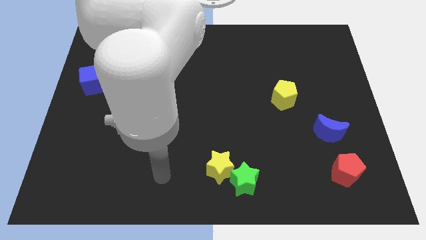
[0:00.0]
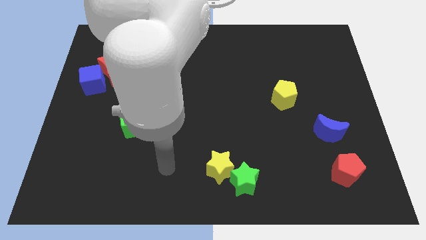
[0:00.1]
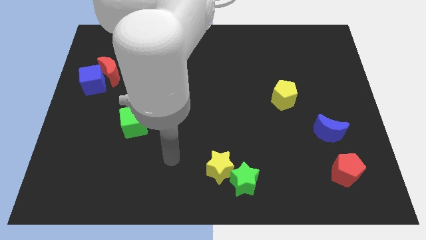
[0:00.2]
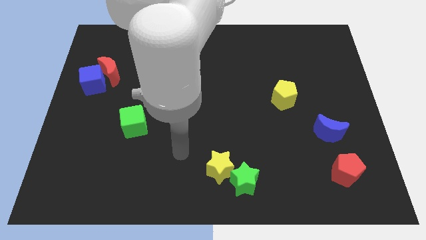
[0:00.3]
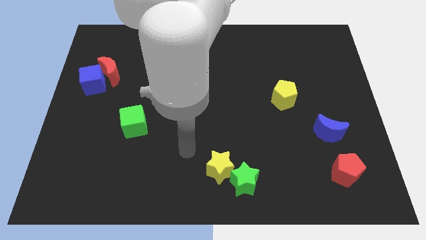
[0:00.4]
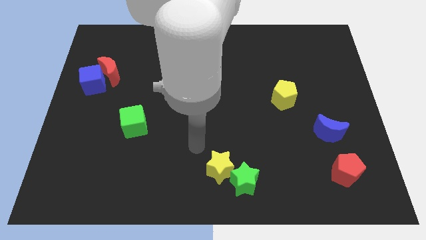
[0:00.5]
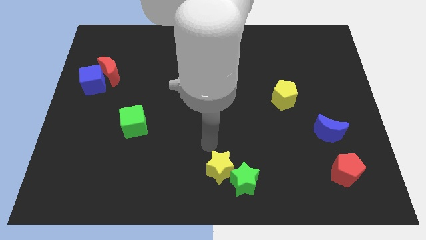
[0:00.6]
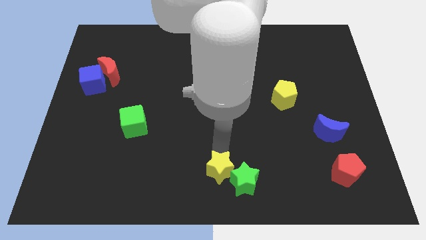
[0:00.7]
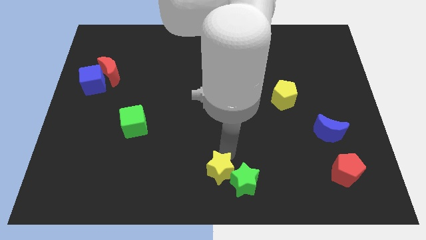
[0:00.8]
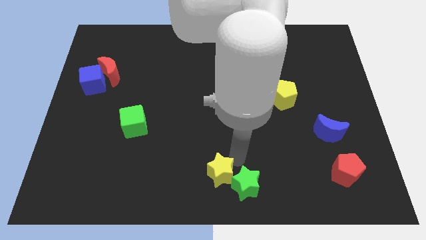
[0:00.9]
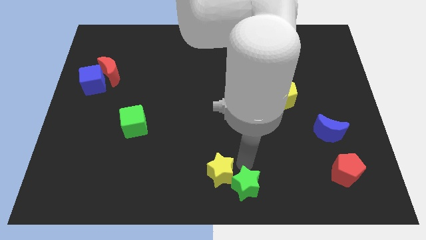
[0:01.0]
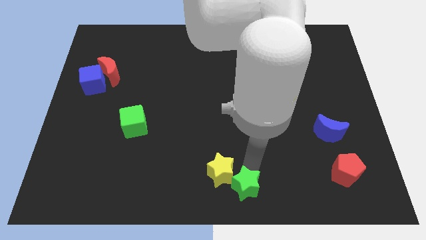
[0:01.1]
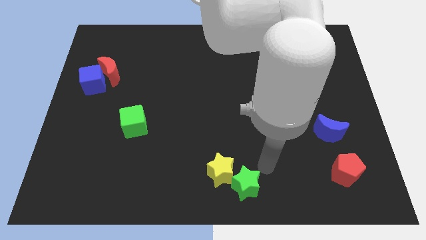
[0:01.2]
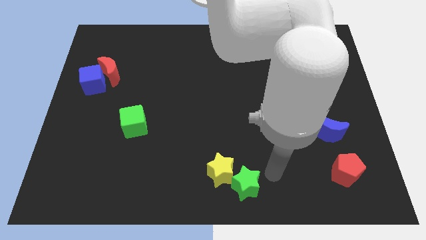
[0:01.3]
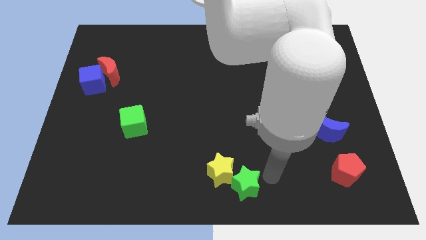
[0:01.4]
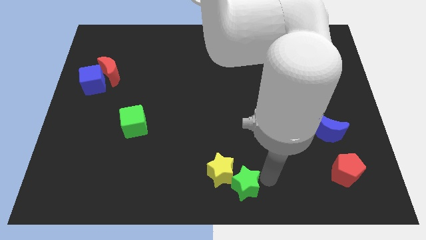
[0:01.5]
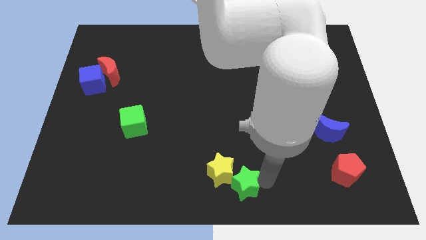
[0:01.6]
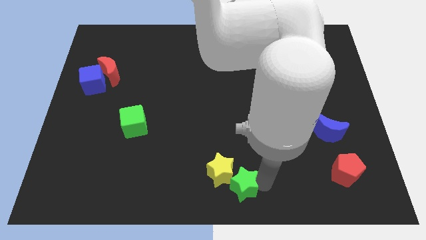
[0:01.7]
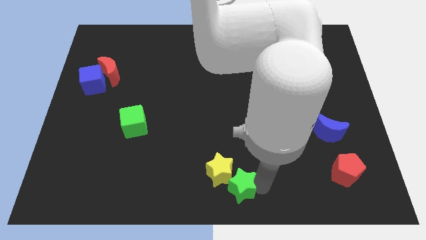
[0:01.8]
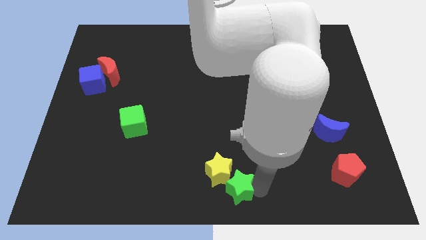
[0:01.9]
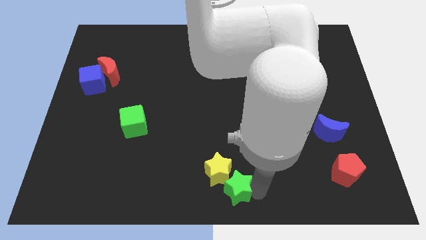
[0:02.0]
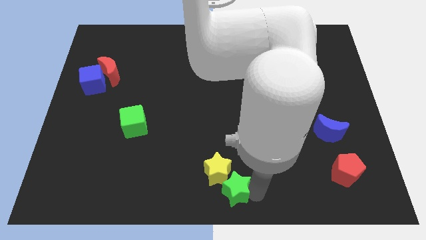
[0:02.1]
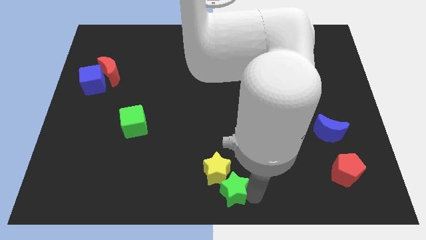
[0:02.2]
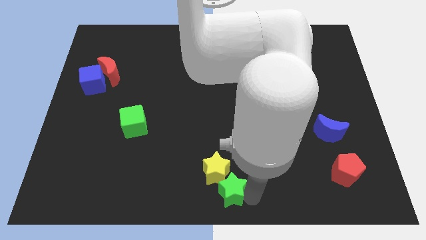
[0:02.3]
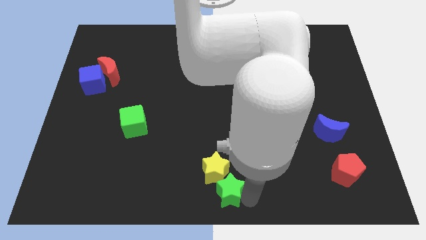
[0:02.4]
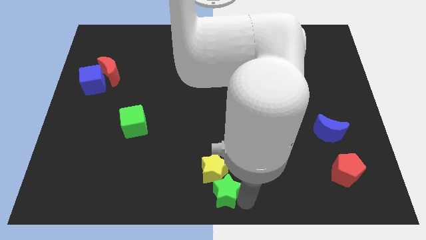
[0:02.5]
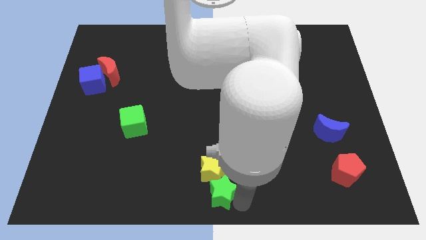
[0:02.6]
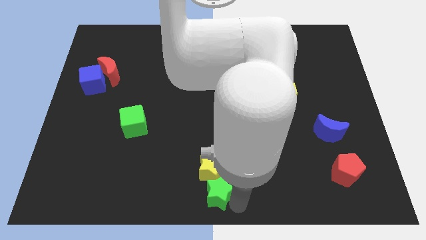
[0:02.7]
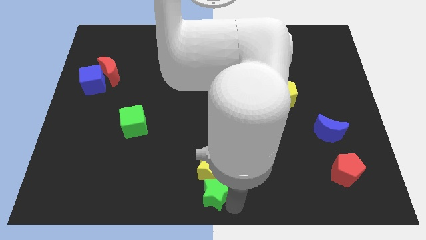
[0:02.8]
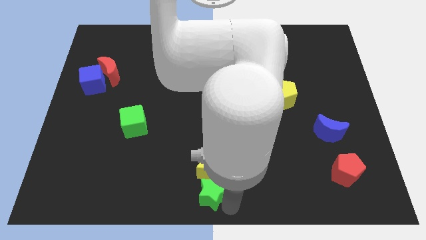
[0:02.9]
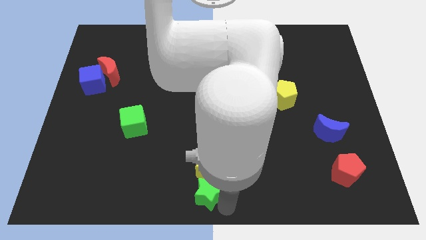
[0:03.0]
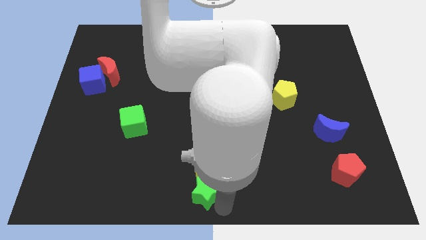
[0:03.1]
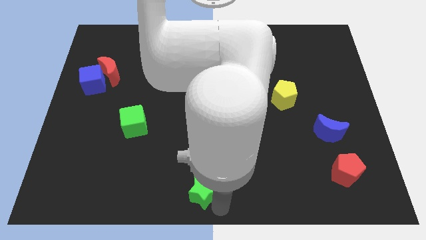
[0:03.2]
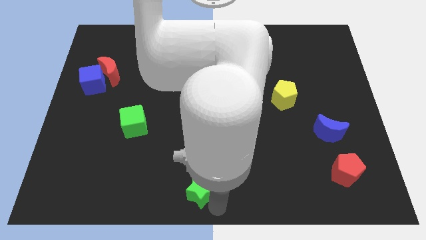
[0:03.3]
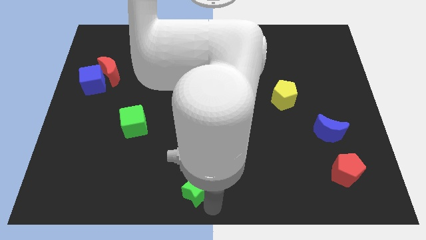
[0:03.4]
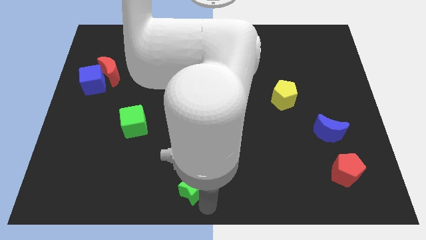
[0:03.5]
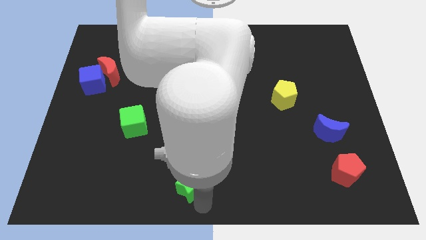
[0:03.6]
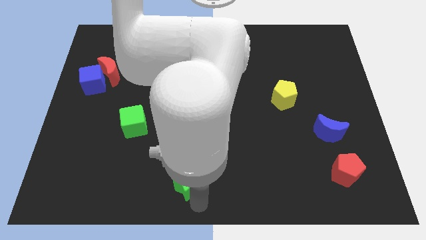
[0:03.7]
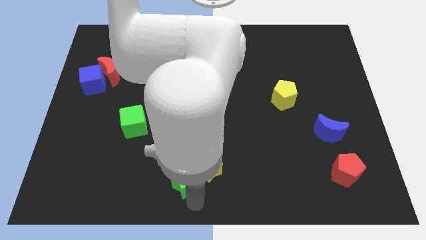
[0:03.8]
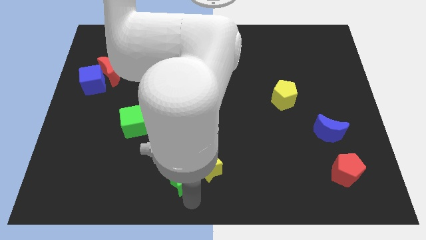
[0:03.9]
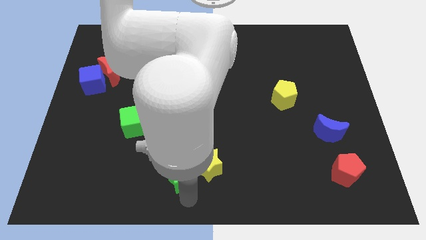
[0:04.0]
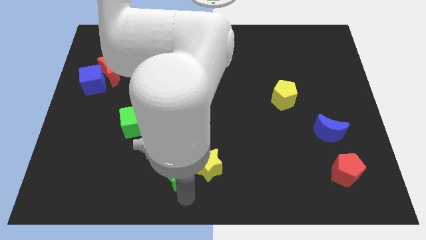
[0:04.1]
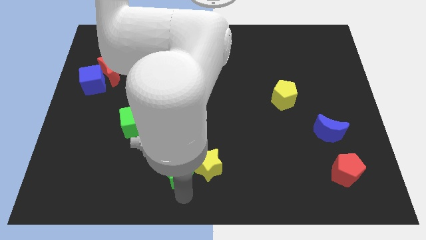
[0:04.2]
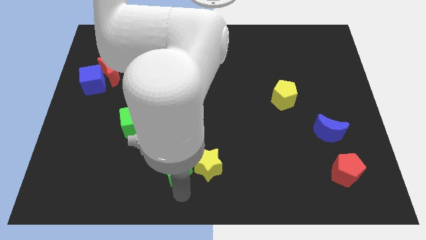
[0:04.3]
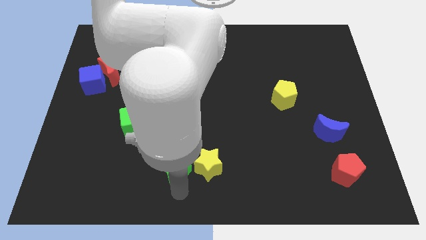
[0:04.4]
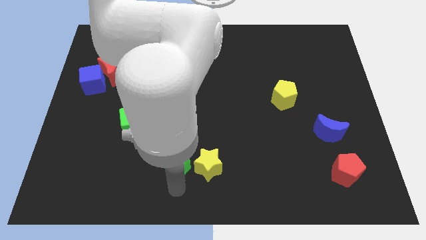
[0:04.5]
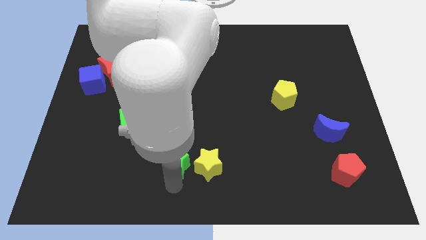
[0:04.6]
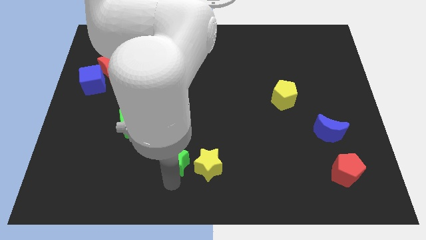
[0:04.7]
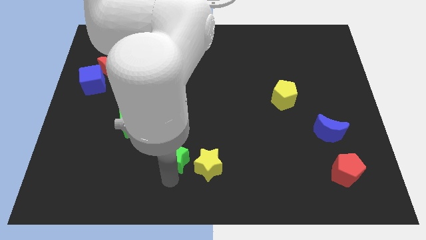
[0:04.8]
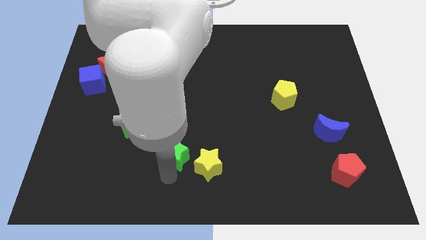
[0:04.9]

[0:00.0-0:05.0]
slide the green star to the bottom right of the green cube

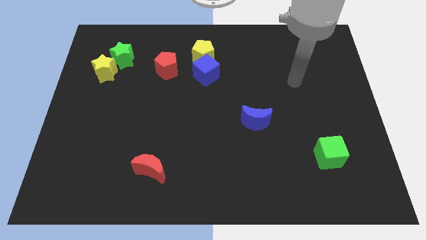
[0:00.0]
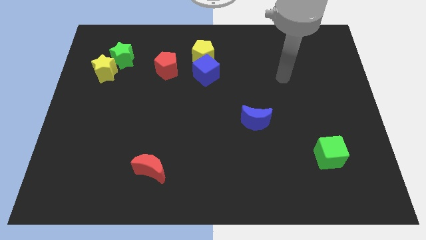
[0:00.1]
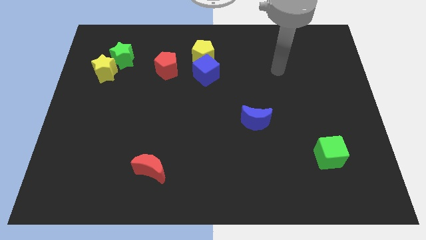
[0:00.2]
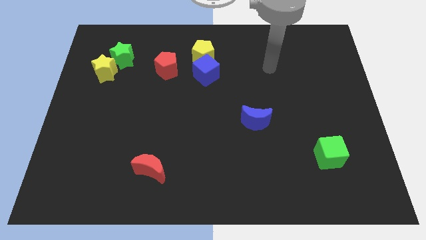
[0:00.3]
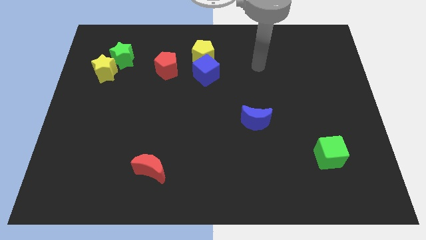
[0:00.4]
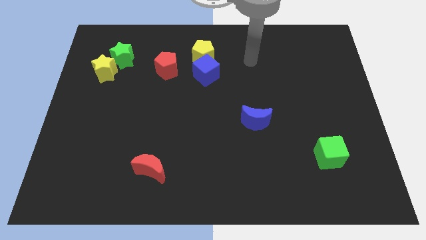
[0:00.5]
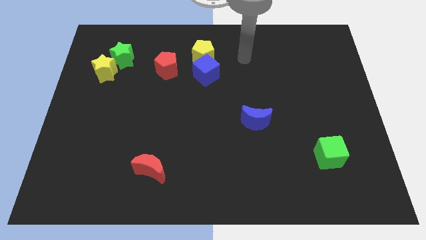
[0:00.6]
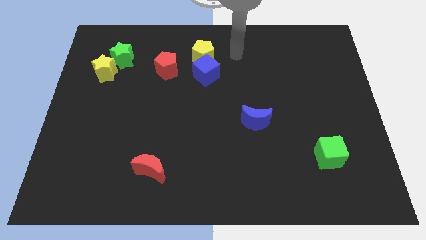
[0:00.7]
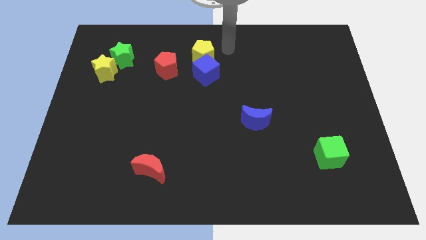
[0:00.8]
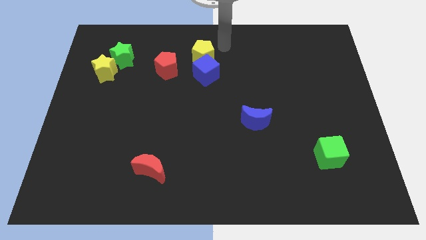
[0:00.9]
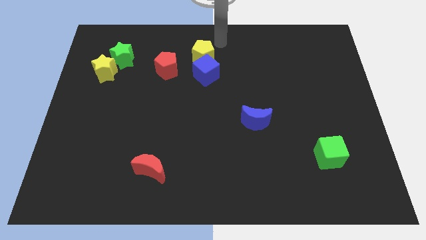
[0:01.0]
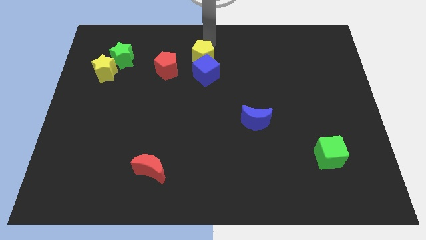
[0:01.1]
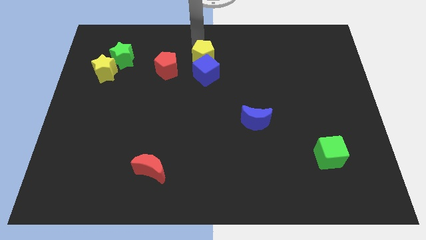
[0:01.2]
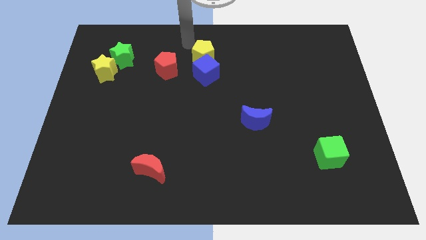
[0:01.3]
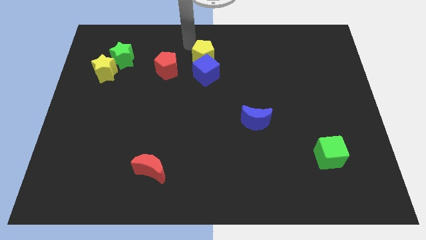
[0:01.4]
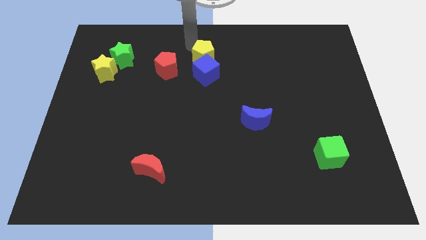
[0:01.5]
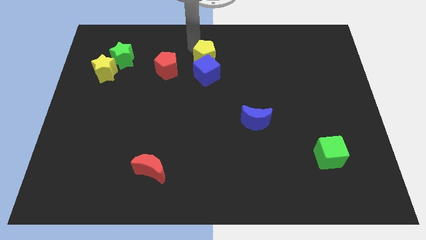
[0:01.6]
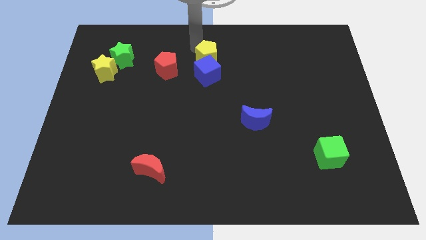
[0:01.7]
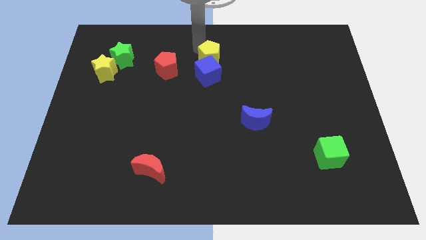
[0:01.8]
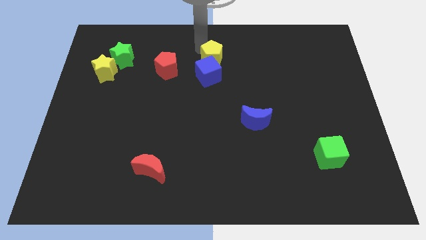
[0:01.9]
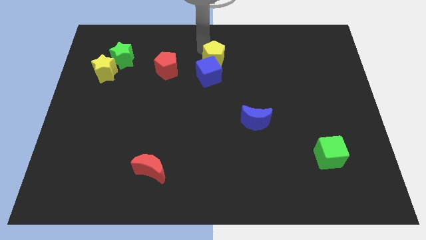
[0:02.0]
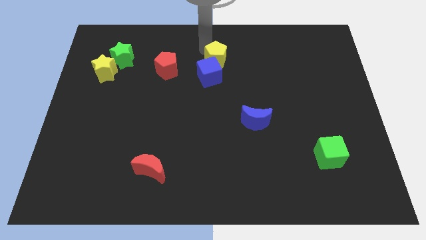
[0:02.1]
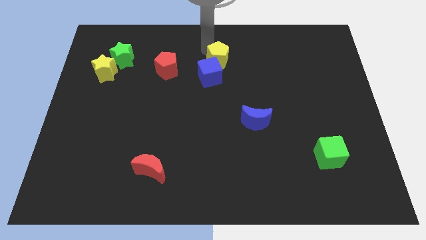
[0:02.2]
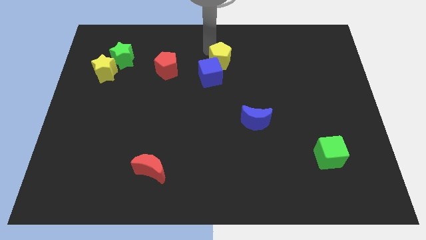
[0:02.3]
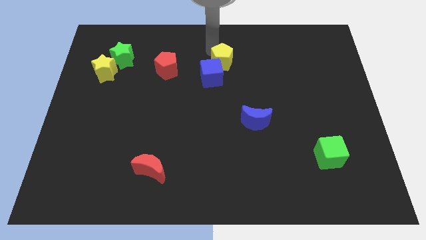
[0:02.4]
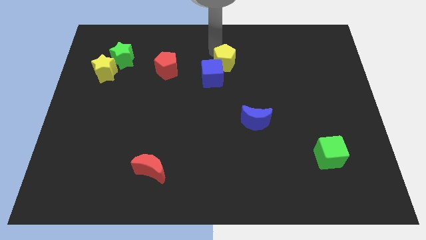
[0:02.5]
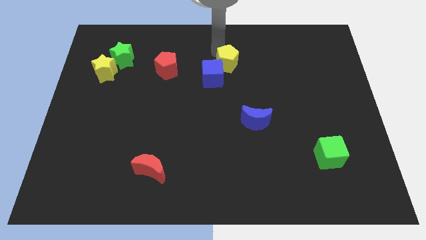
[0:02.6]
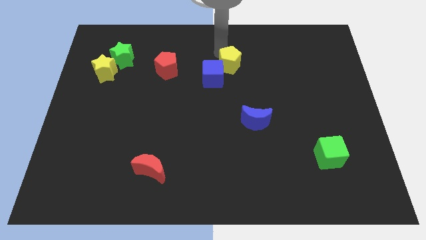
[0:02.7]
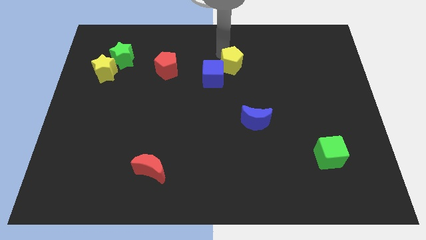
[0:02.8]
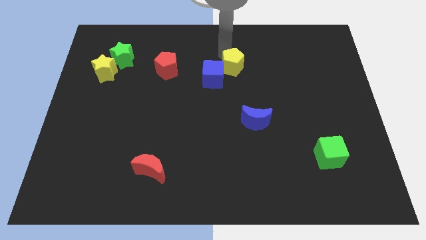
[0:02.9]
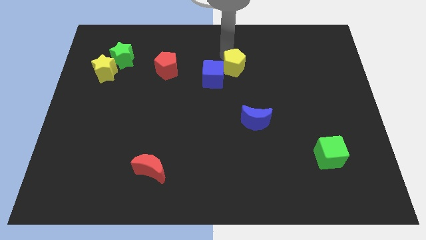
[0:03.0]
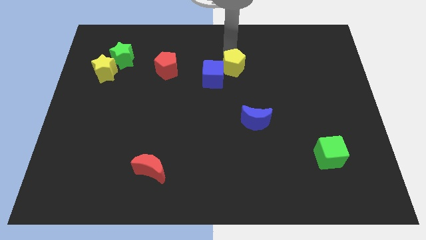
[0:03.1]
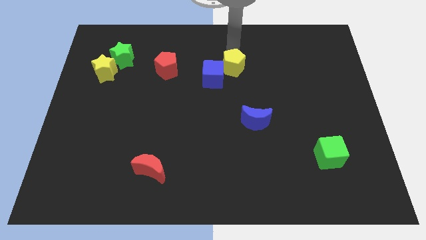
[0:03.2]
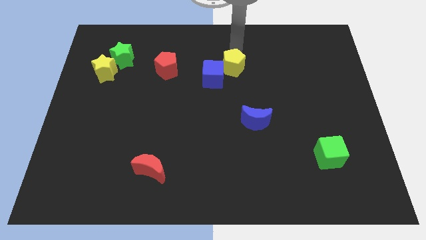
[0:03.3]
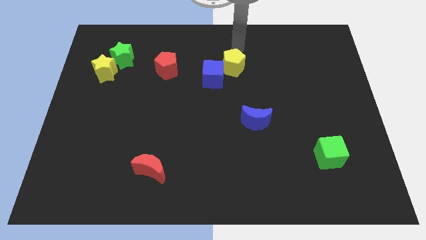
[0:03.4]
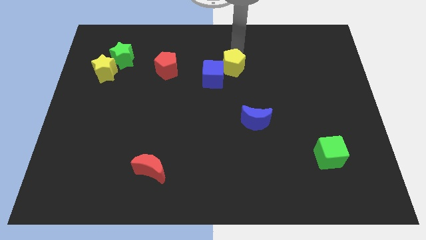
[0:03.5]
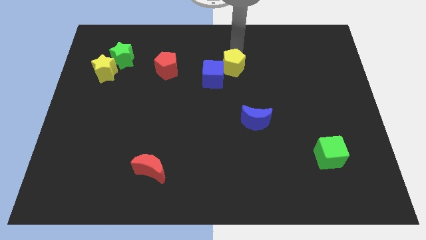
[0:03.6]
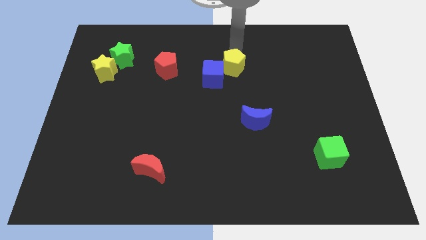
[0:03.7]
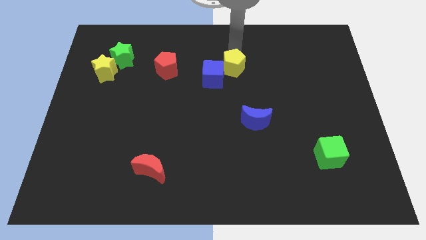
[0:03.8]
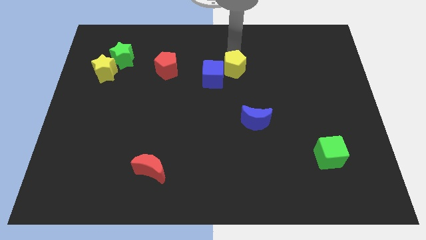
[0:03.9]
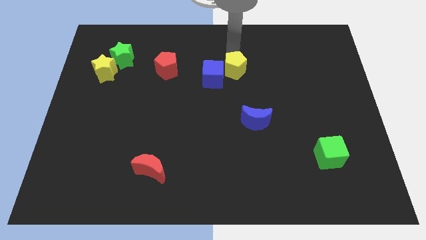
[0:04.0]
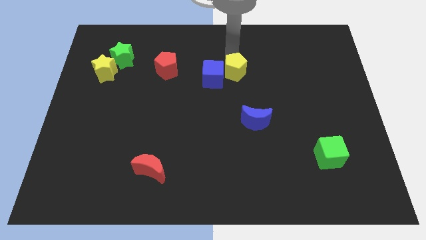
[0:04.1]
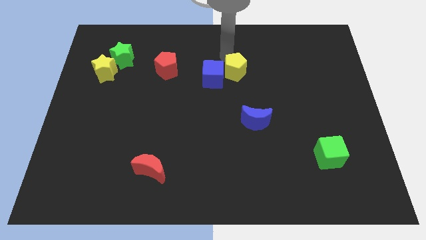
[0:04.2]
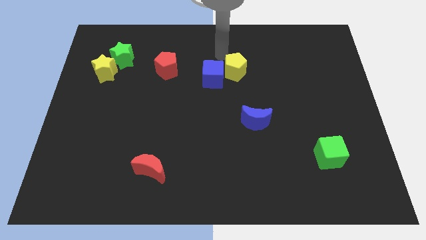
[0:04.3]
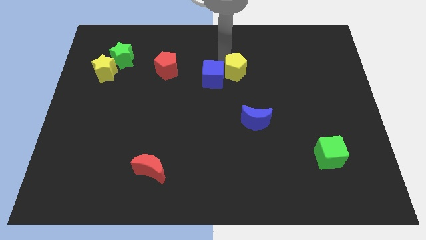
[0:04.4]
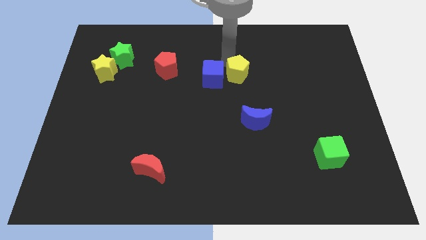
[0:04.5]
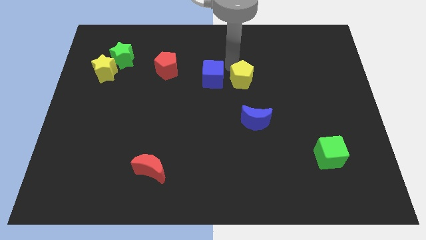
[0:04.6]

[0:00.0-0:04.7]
push the yellow pentagon above the blue moon
